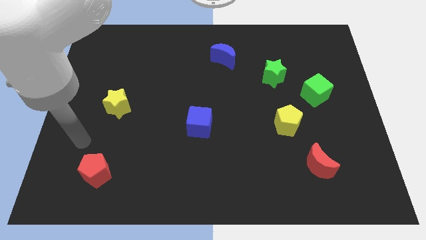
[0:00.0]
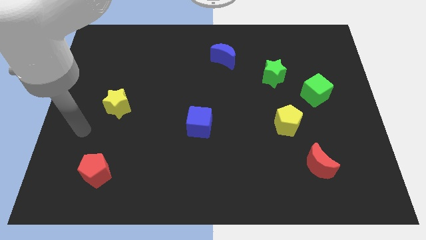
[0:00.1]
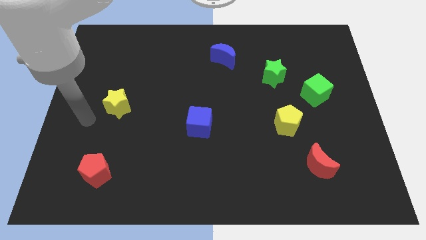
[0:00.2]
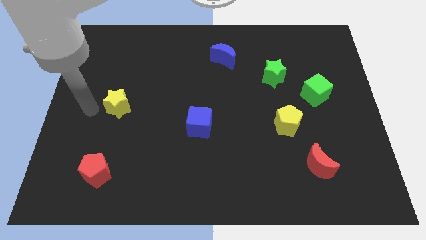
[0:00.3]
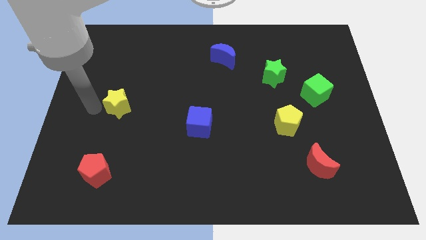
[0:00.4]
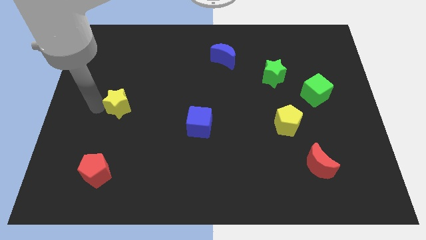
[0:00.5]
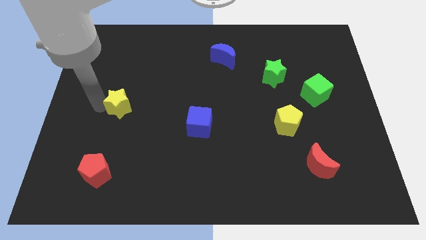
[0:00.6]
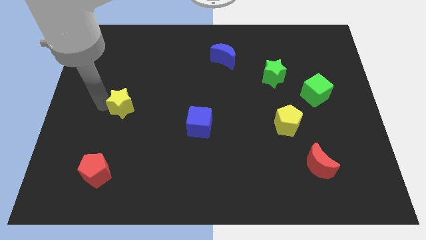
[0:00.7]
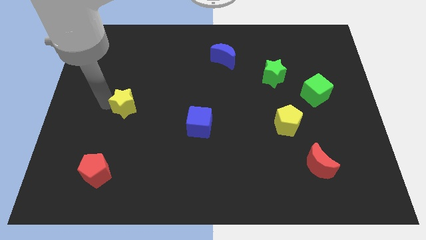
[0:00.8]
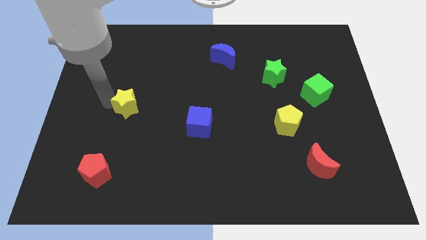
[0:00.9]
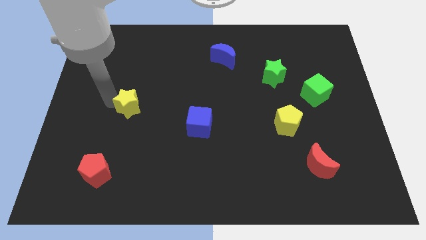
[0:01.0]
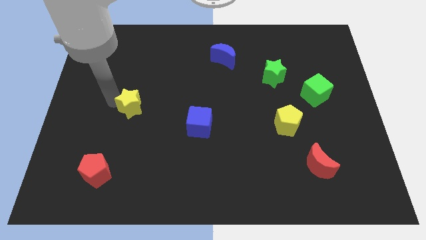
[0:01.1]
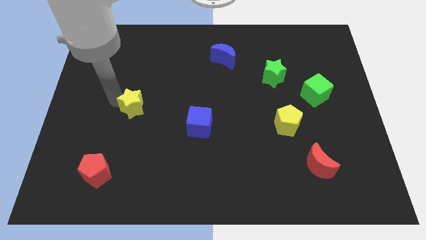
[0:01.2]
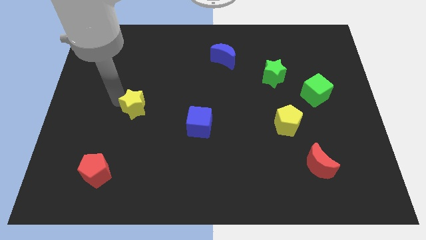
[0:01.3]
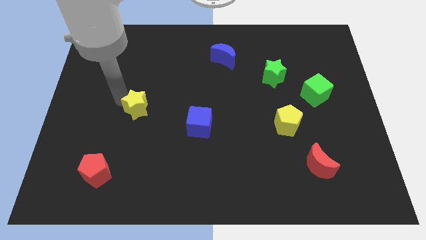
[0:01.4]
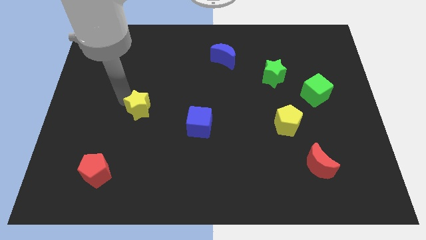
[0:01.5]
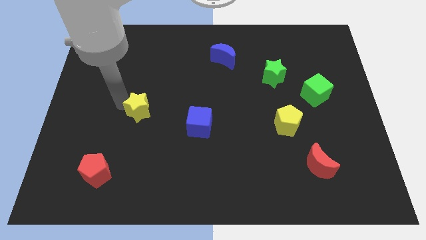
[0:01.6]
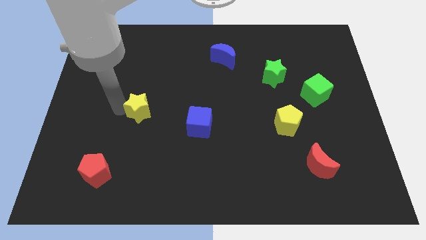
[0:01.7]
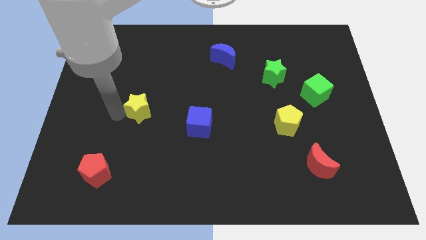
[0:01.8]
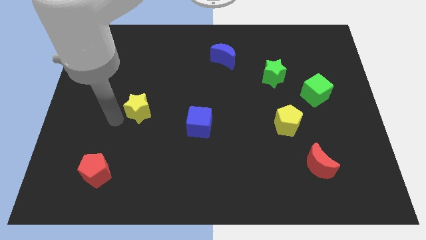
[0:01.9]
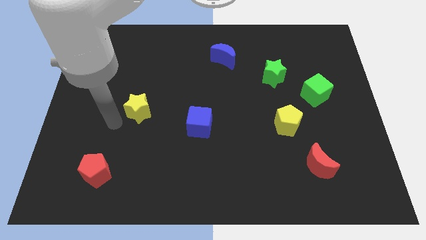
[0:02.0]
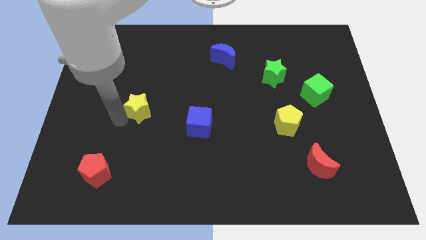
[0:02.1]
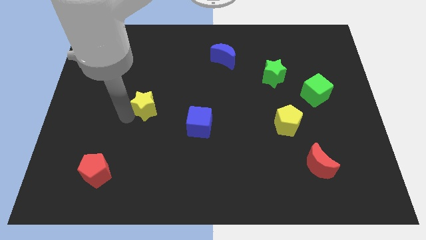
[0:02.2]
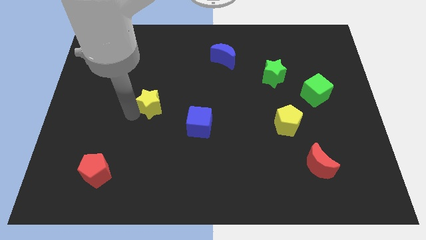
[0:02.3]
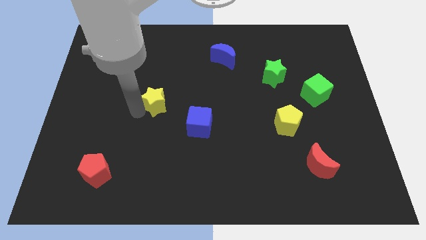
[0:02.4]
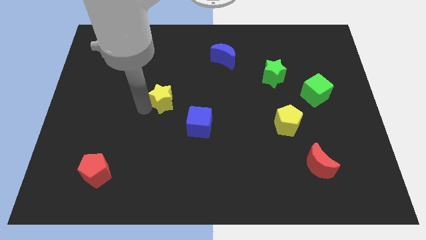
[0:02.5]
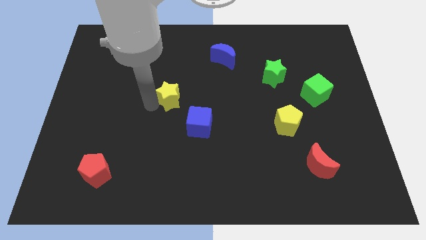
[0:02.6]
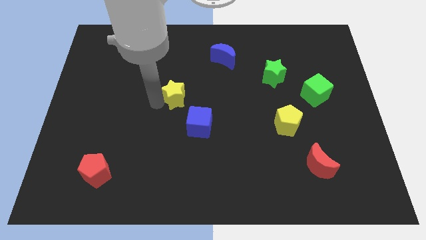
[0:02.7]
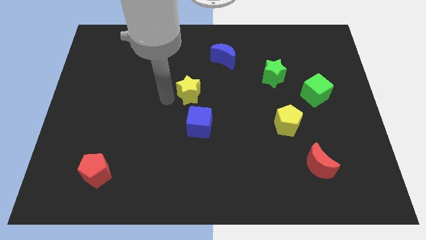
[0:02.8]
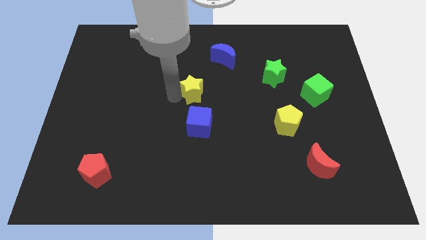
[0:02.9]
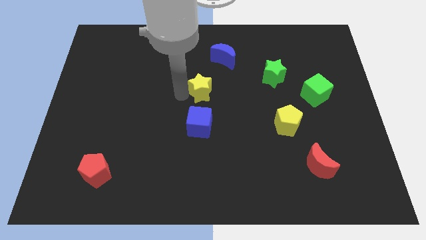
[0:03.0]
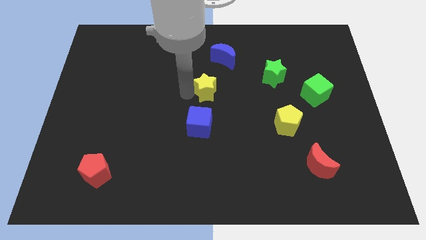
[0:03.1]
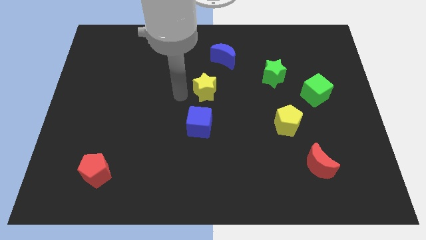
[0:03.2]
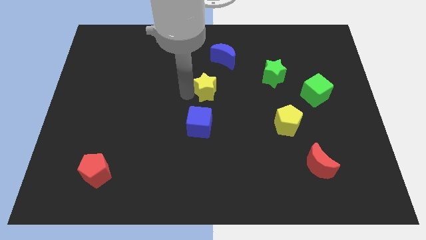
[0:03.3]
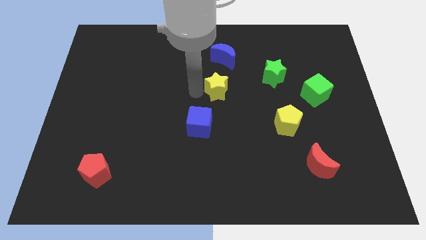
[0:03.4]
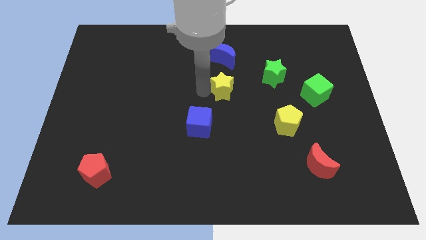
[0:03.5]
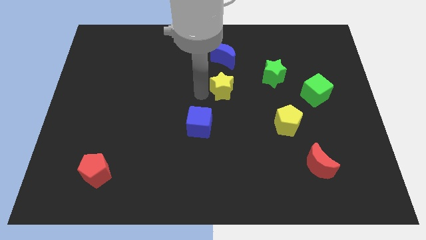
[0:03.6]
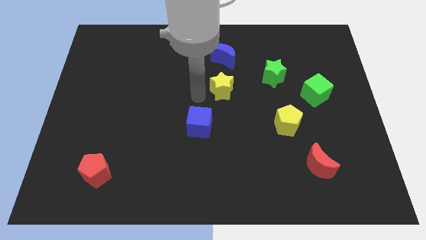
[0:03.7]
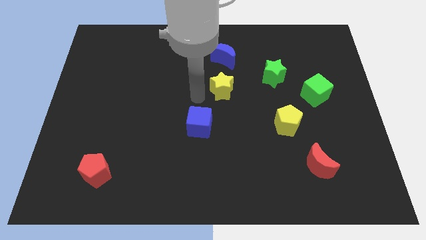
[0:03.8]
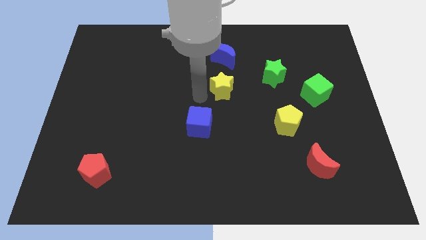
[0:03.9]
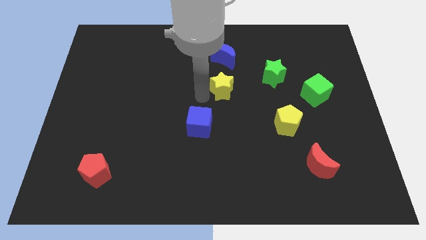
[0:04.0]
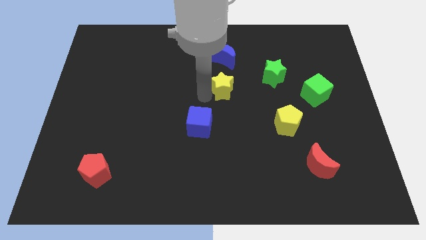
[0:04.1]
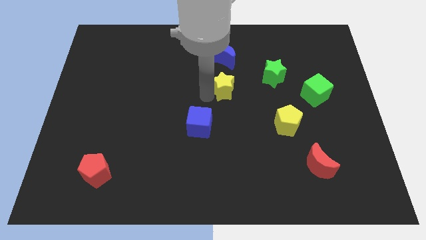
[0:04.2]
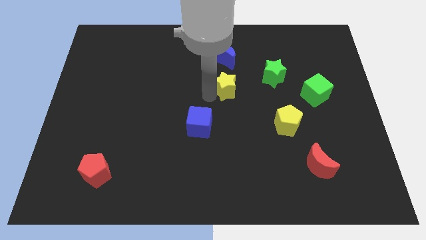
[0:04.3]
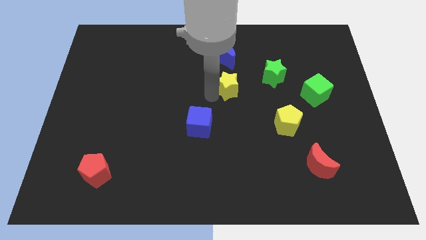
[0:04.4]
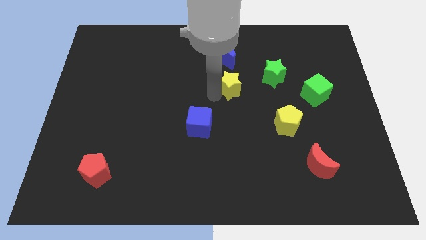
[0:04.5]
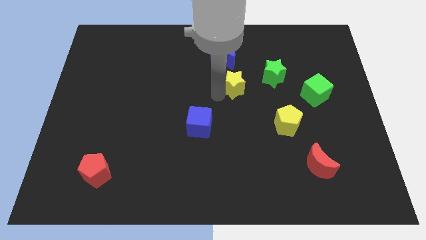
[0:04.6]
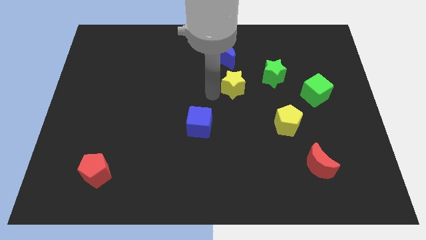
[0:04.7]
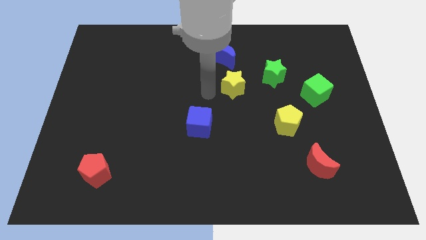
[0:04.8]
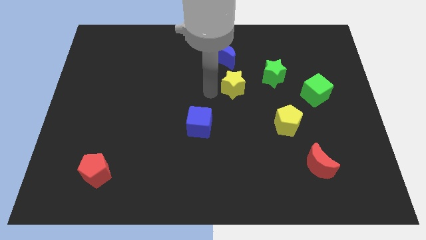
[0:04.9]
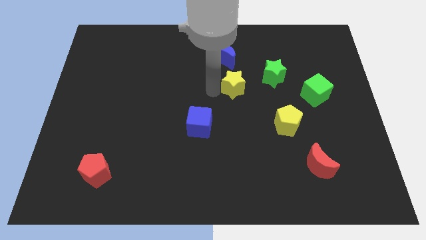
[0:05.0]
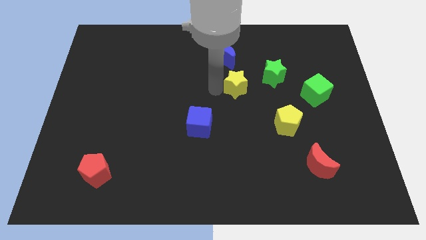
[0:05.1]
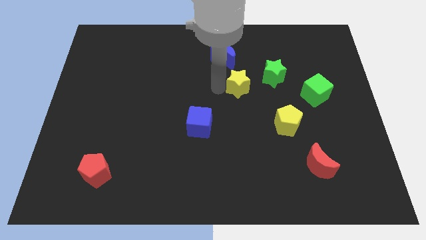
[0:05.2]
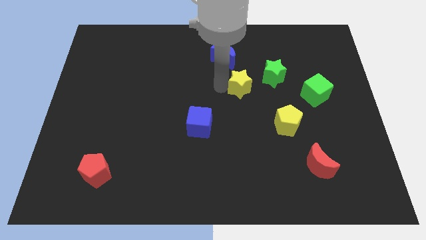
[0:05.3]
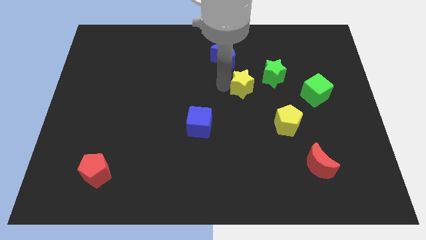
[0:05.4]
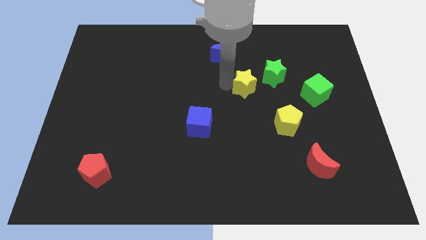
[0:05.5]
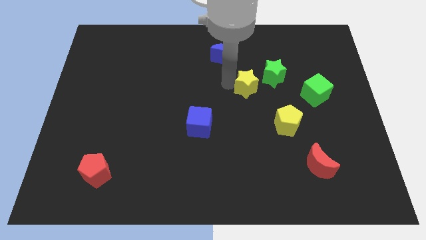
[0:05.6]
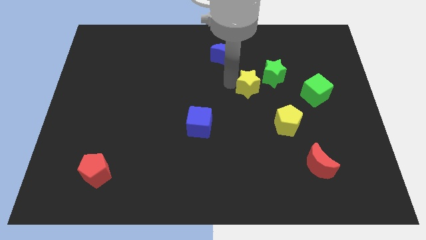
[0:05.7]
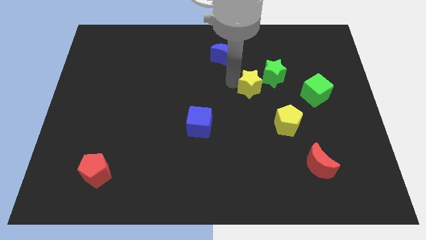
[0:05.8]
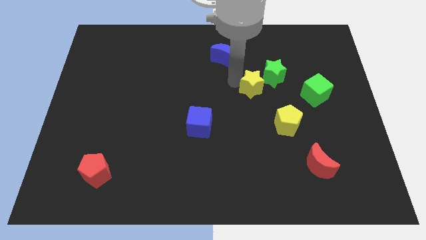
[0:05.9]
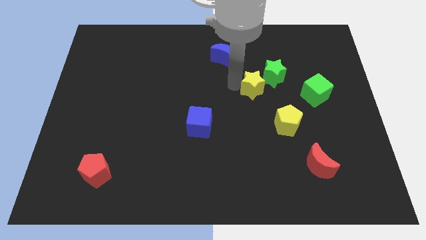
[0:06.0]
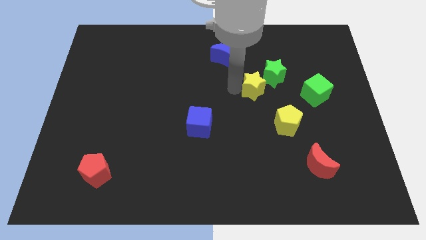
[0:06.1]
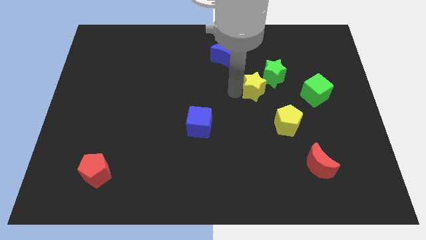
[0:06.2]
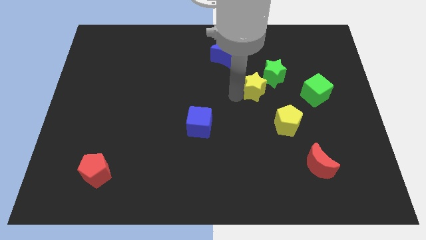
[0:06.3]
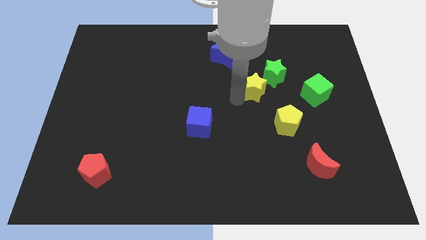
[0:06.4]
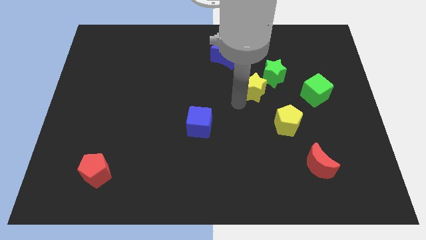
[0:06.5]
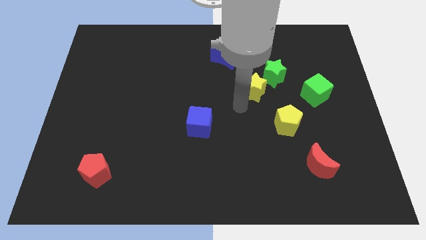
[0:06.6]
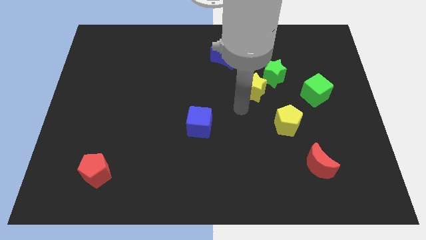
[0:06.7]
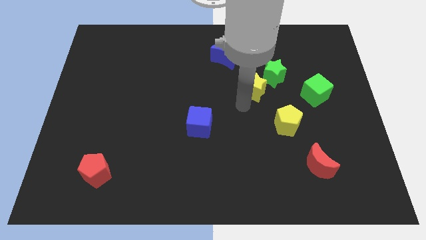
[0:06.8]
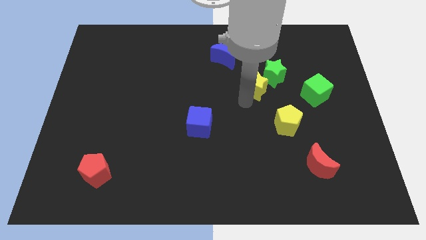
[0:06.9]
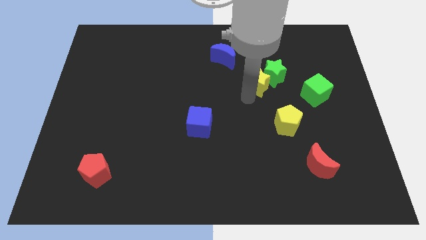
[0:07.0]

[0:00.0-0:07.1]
put the yellow star close to the green star

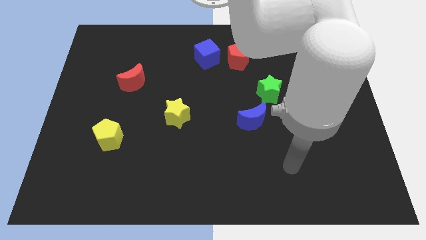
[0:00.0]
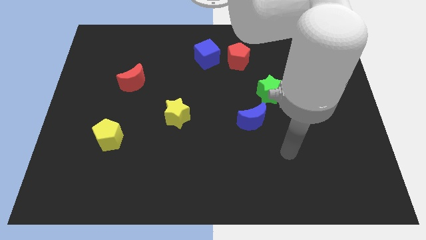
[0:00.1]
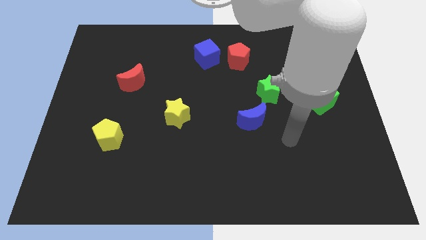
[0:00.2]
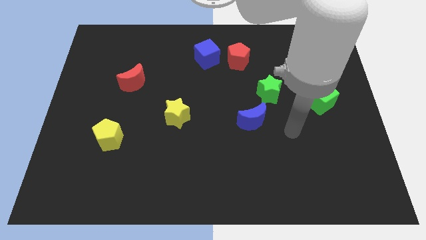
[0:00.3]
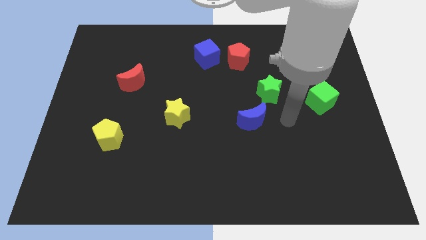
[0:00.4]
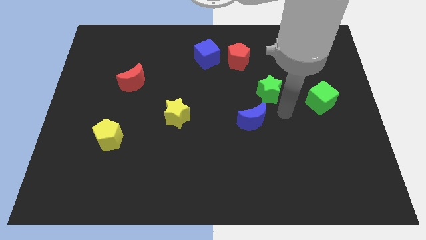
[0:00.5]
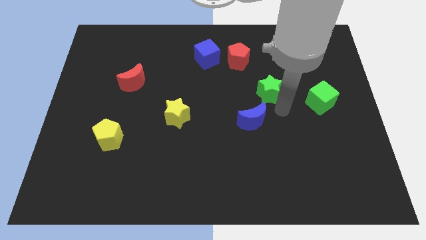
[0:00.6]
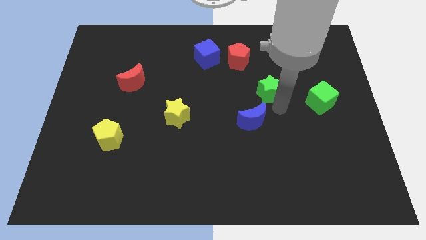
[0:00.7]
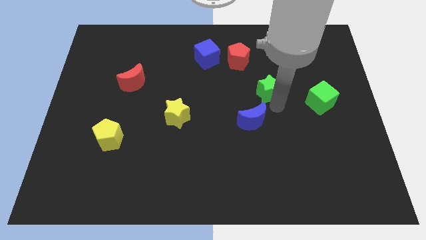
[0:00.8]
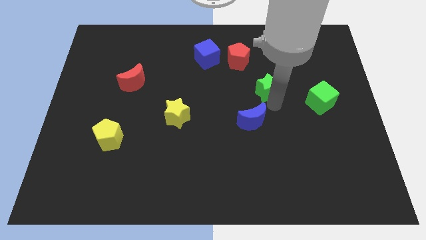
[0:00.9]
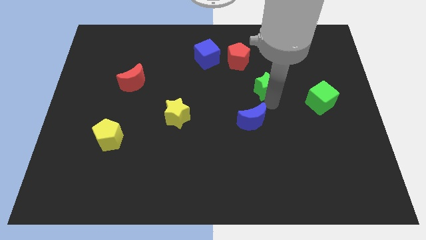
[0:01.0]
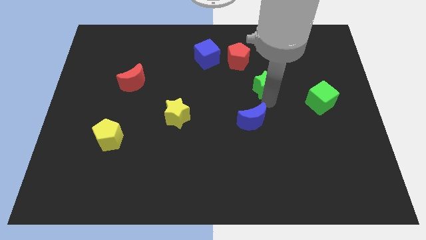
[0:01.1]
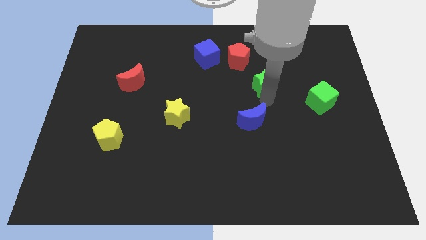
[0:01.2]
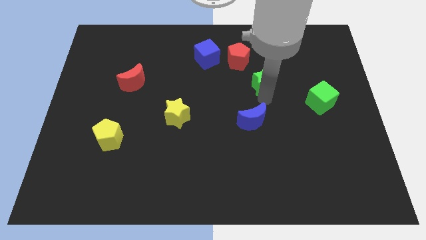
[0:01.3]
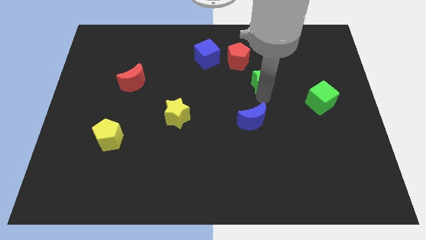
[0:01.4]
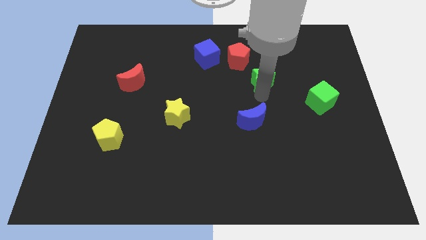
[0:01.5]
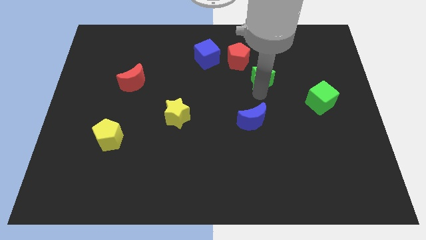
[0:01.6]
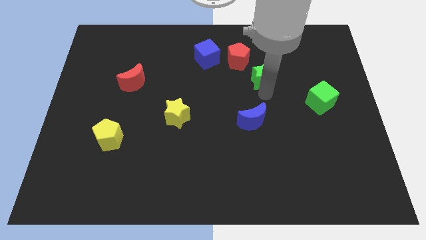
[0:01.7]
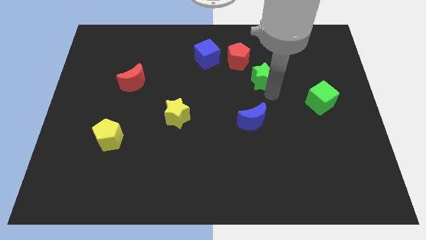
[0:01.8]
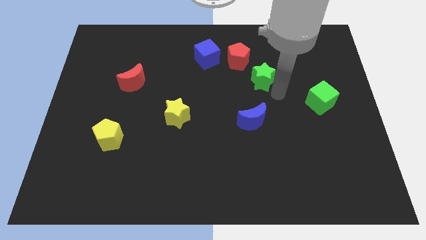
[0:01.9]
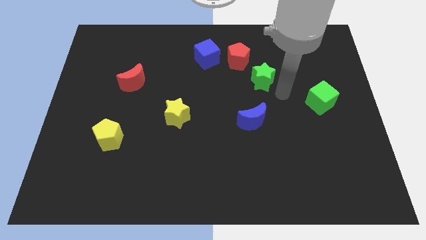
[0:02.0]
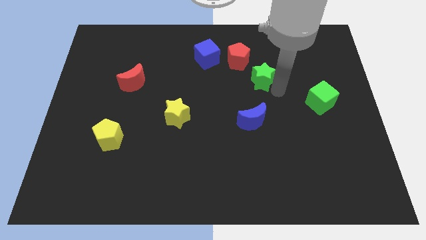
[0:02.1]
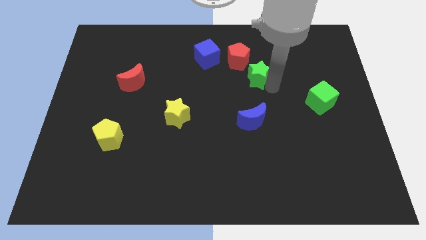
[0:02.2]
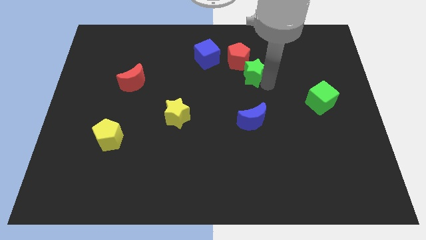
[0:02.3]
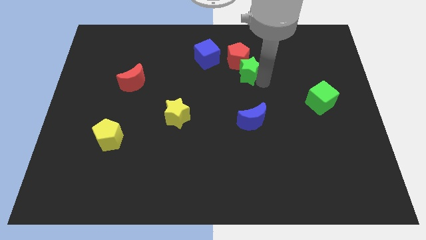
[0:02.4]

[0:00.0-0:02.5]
push the green star to the red pentagon
